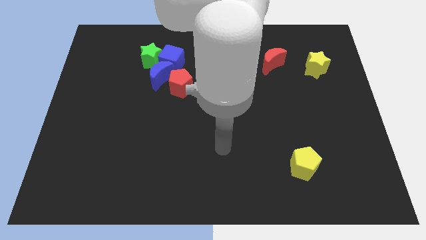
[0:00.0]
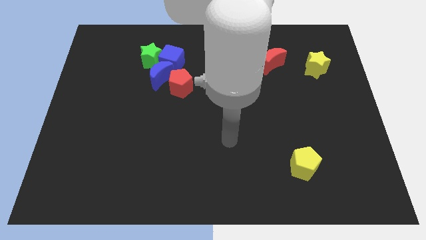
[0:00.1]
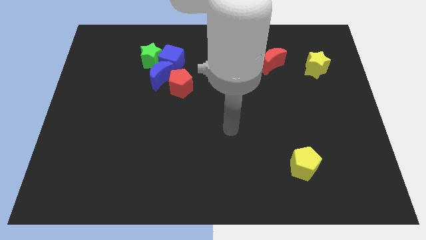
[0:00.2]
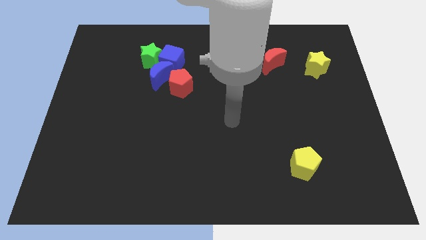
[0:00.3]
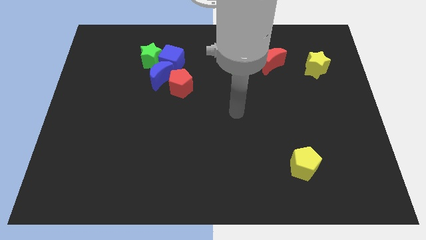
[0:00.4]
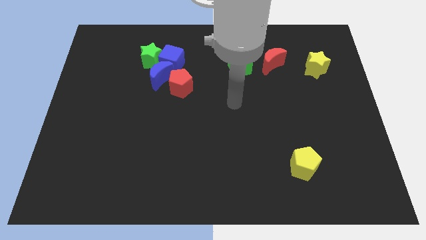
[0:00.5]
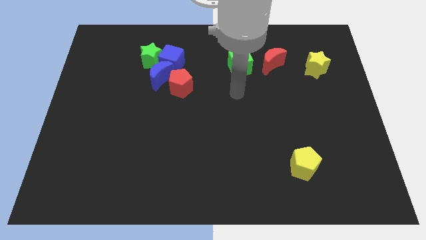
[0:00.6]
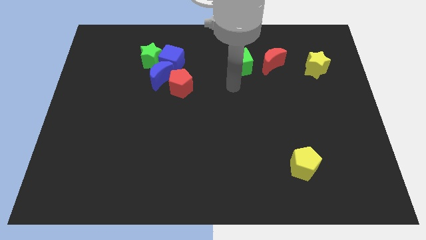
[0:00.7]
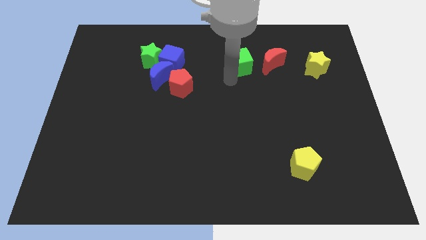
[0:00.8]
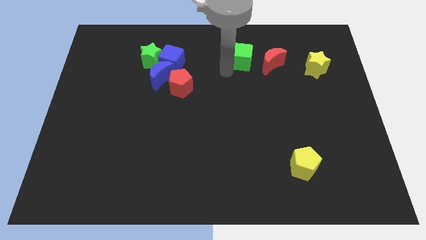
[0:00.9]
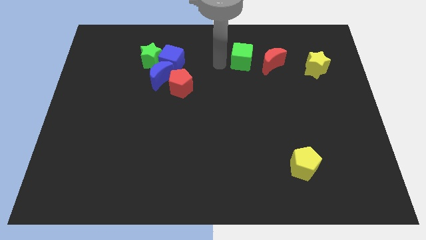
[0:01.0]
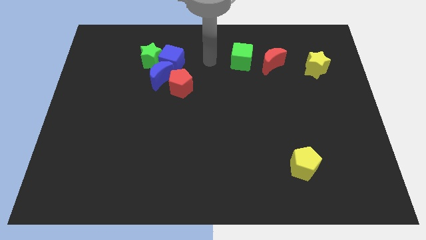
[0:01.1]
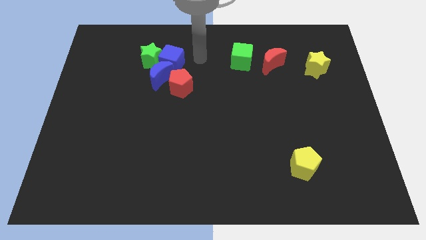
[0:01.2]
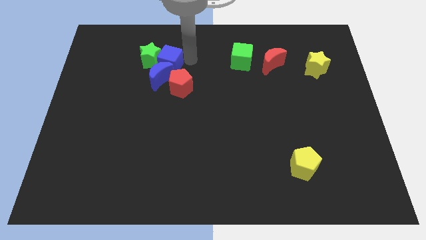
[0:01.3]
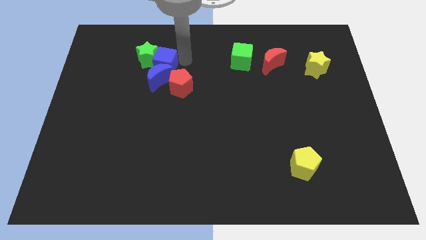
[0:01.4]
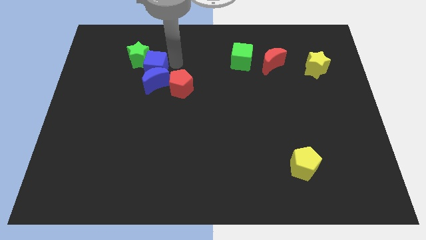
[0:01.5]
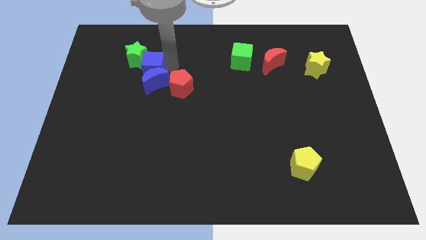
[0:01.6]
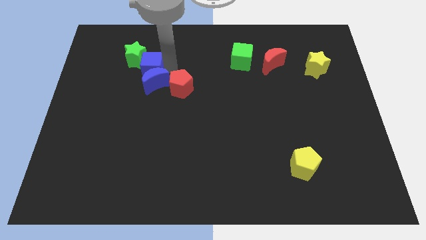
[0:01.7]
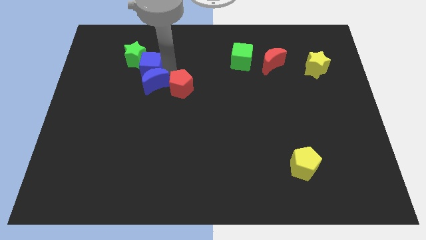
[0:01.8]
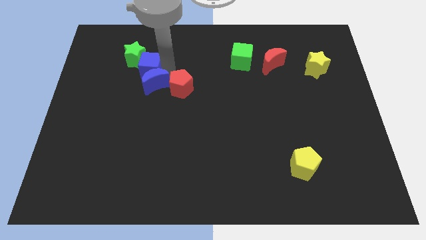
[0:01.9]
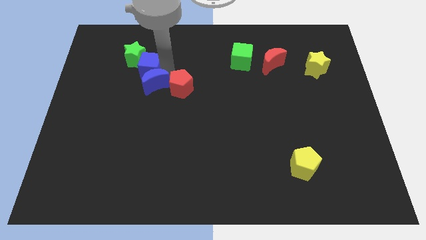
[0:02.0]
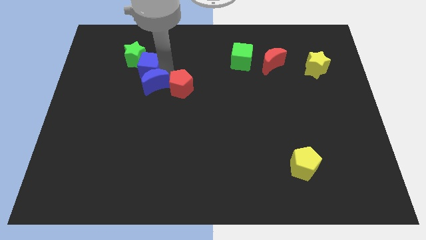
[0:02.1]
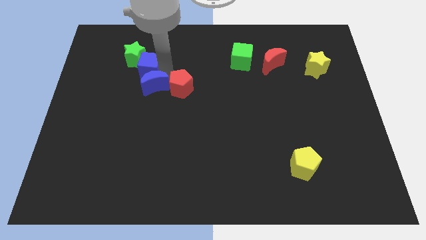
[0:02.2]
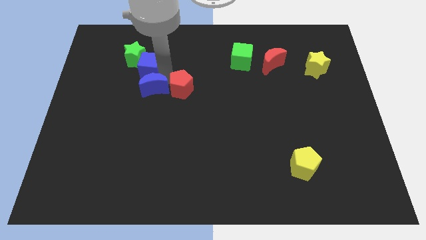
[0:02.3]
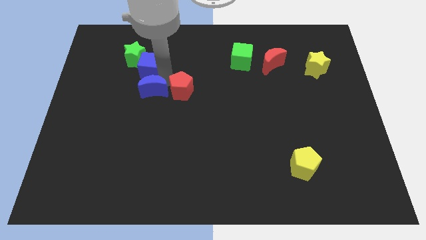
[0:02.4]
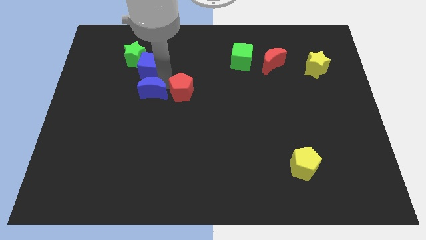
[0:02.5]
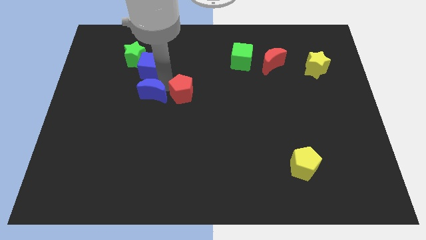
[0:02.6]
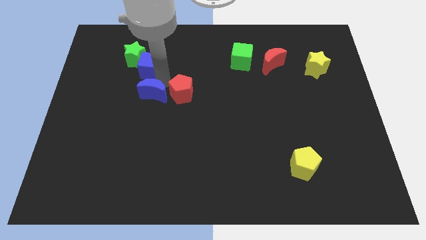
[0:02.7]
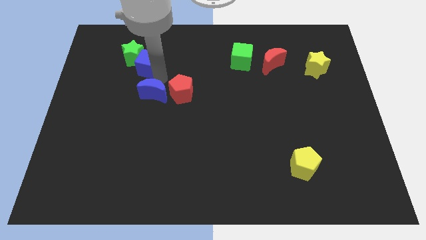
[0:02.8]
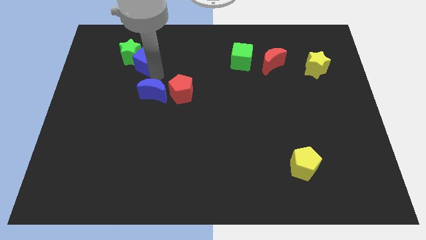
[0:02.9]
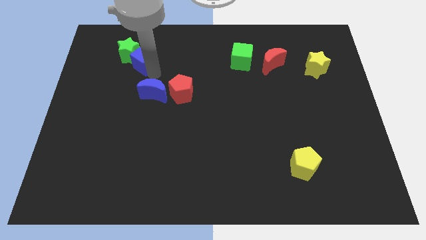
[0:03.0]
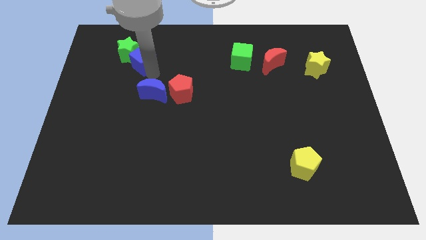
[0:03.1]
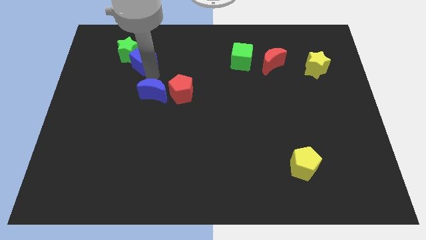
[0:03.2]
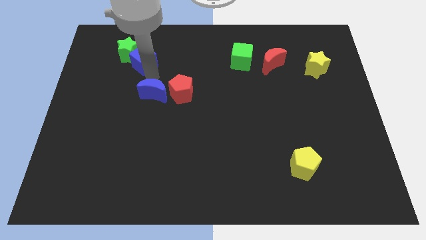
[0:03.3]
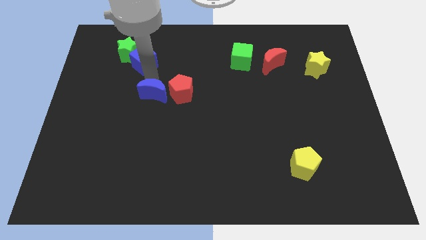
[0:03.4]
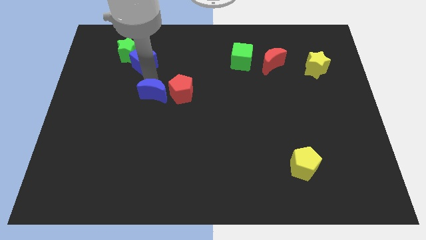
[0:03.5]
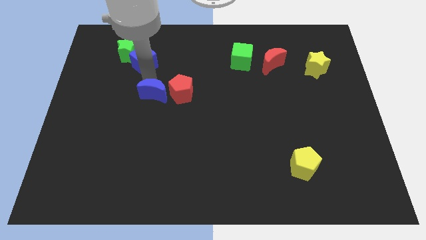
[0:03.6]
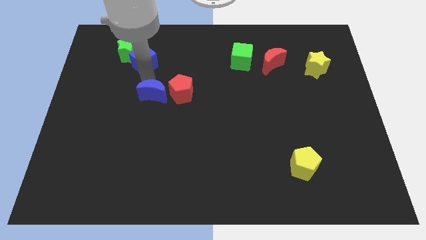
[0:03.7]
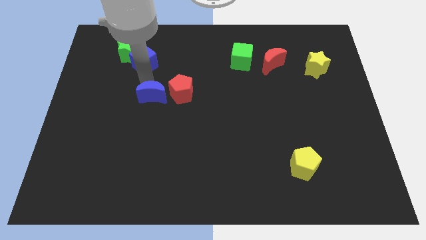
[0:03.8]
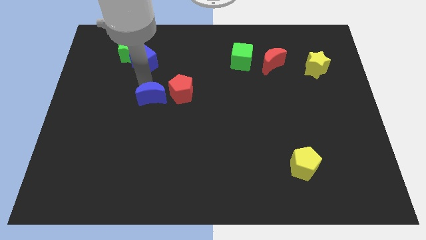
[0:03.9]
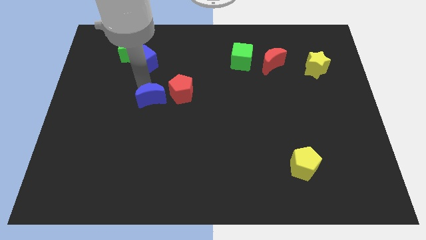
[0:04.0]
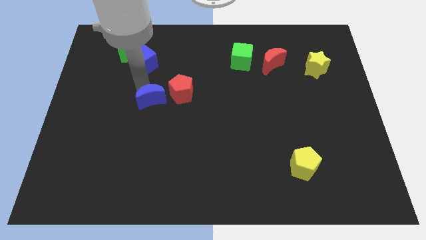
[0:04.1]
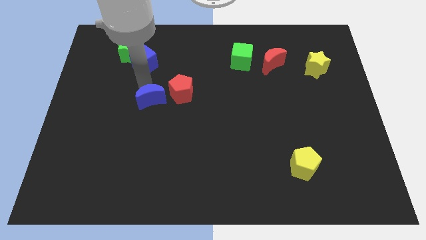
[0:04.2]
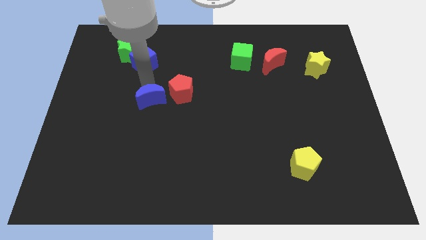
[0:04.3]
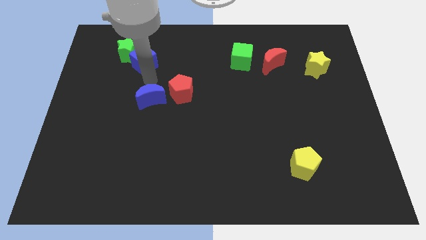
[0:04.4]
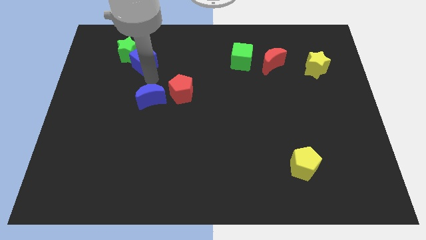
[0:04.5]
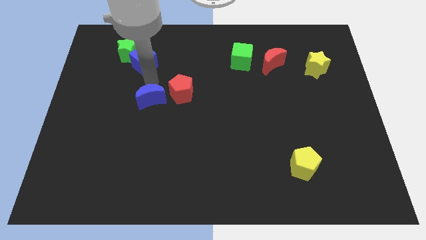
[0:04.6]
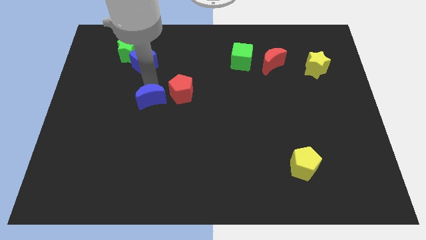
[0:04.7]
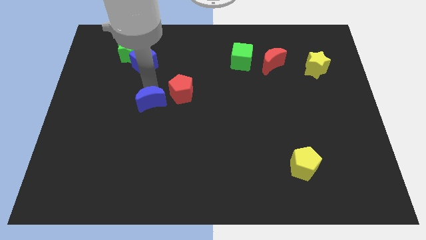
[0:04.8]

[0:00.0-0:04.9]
pull the blue moon apart from the group of blocks

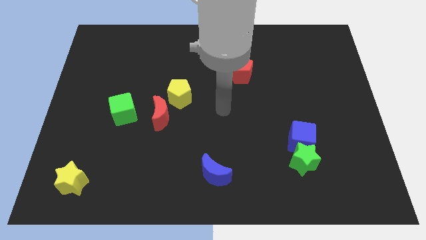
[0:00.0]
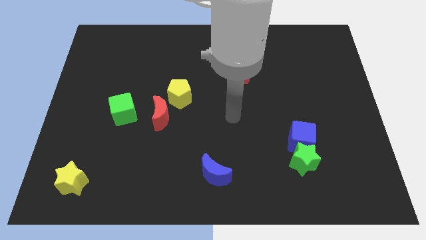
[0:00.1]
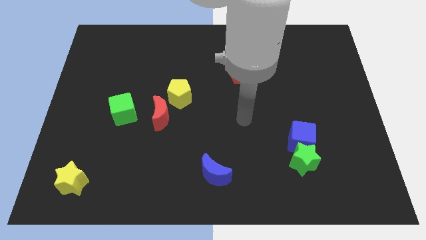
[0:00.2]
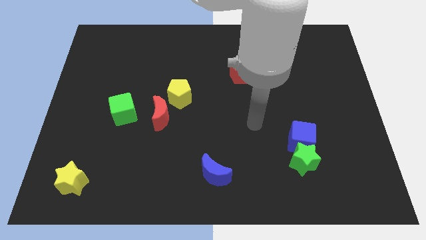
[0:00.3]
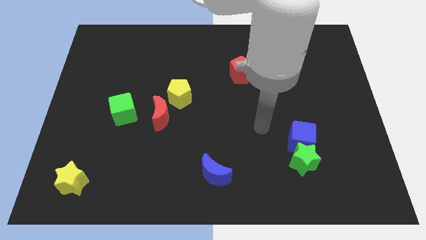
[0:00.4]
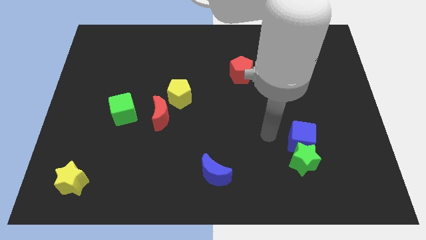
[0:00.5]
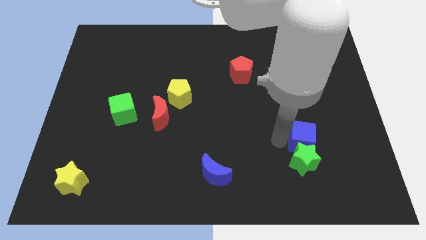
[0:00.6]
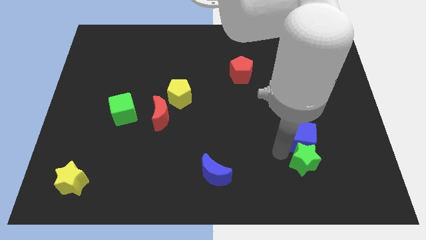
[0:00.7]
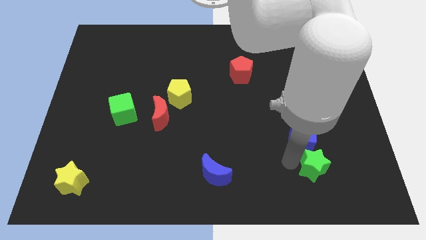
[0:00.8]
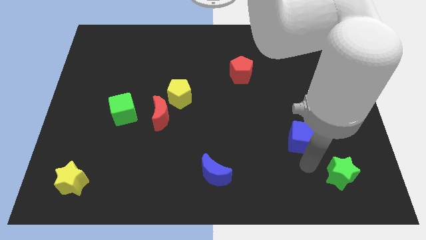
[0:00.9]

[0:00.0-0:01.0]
separate the blue cube from the green star

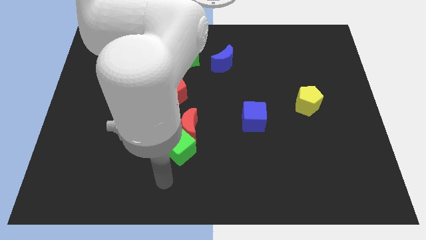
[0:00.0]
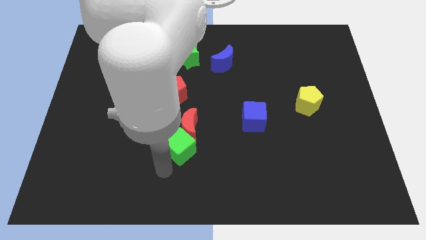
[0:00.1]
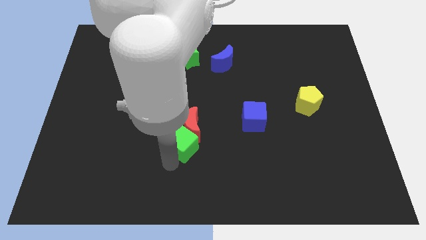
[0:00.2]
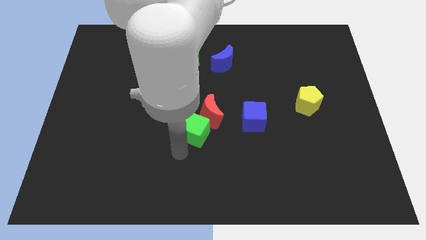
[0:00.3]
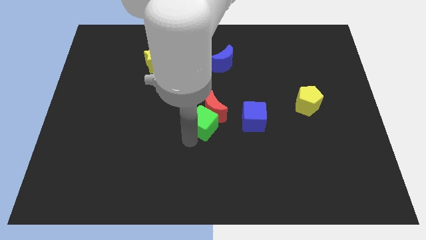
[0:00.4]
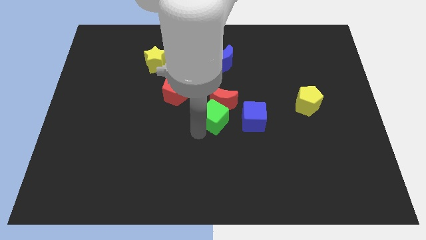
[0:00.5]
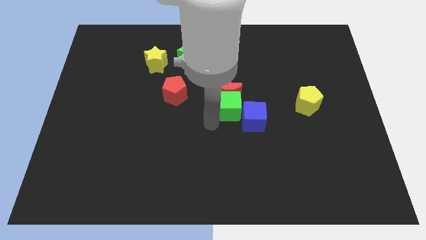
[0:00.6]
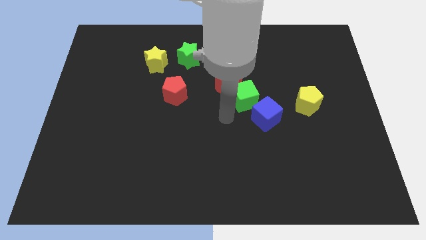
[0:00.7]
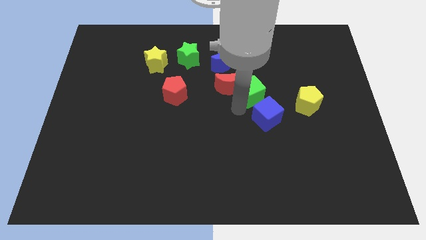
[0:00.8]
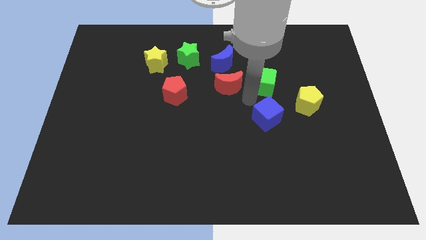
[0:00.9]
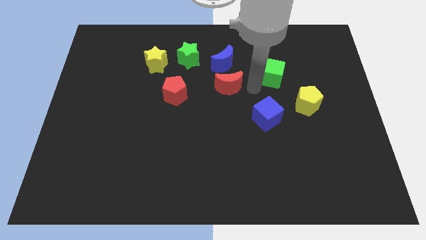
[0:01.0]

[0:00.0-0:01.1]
pull the red moon apart from the green cube

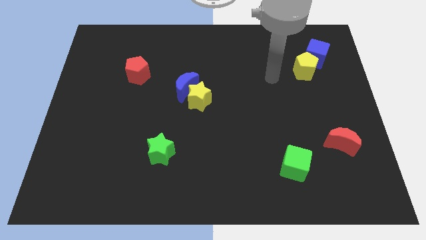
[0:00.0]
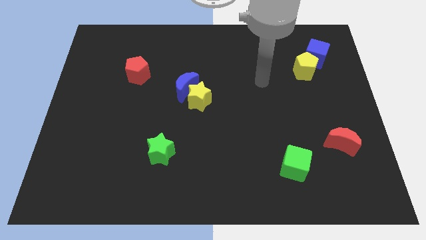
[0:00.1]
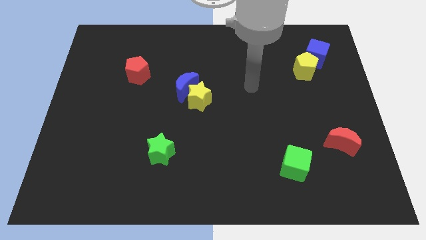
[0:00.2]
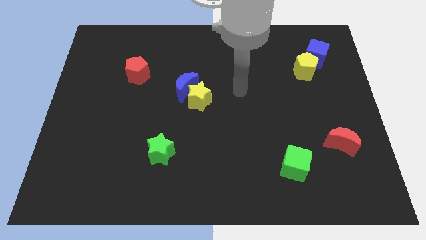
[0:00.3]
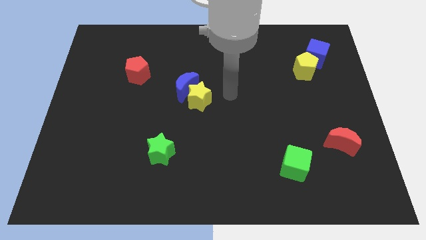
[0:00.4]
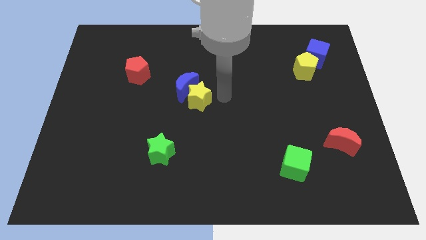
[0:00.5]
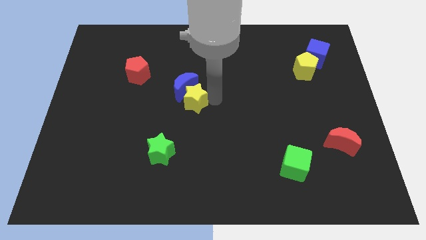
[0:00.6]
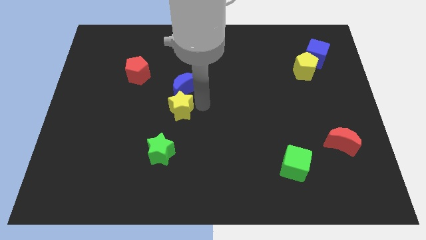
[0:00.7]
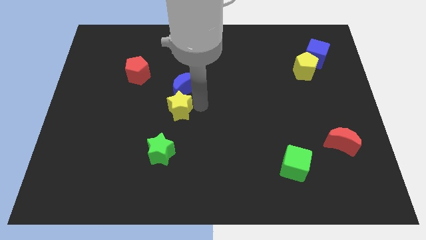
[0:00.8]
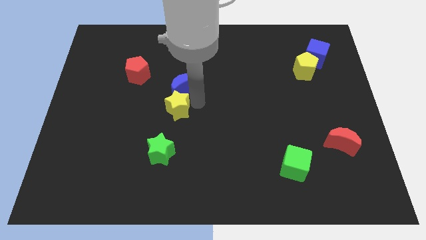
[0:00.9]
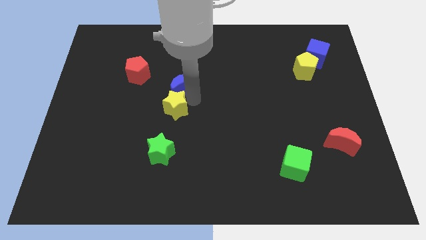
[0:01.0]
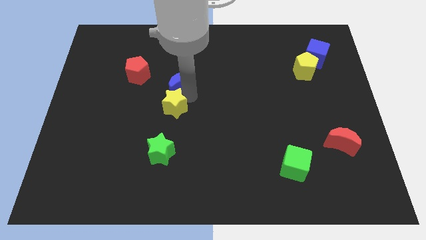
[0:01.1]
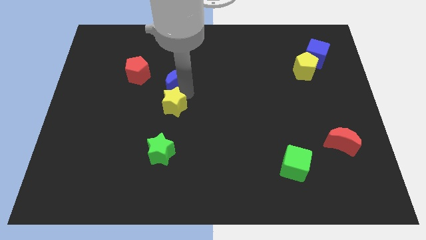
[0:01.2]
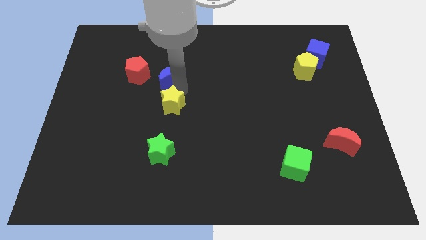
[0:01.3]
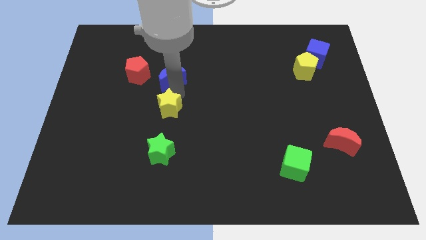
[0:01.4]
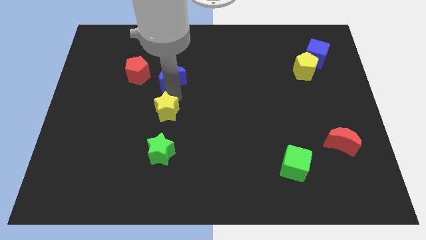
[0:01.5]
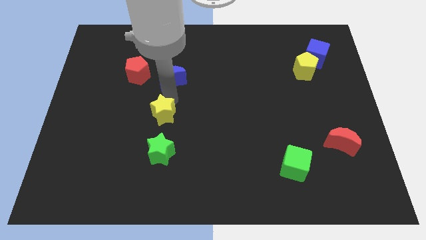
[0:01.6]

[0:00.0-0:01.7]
separate the blue moon from the yellow star

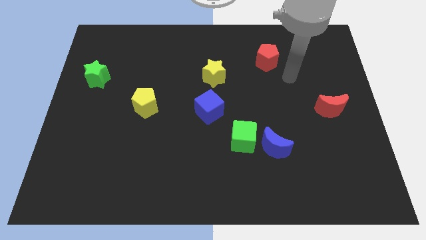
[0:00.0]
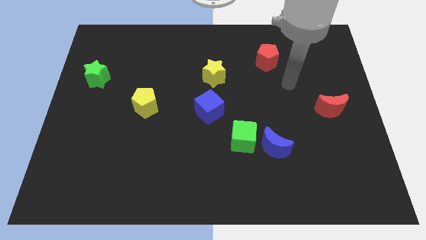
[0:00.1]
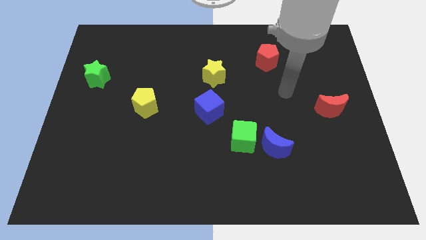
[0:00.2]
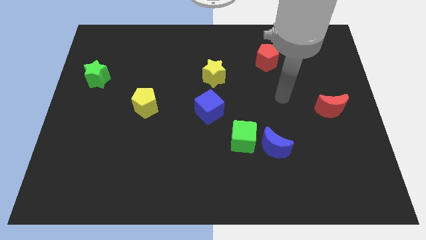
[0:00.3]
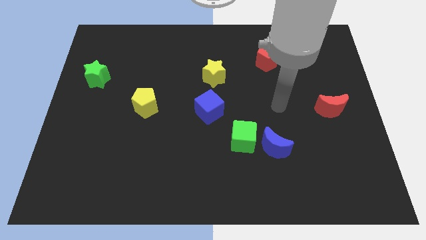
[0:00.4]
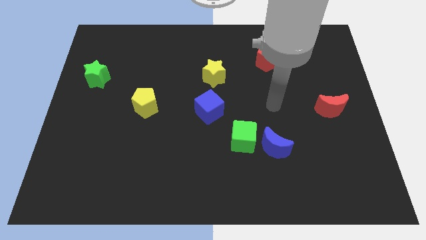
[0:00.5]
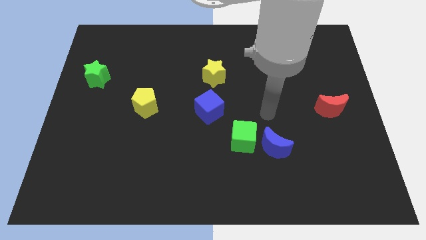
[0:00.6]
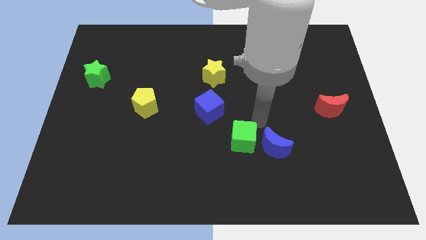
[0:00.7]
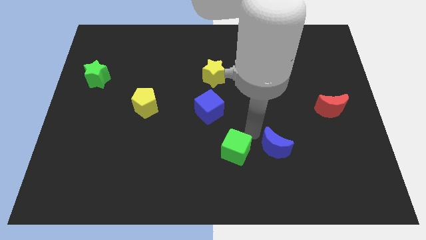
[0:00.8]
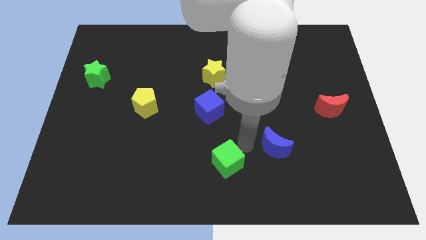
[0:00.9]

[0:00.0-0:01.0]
pull the blue moon apart from the green cube
